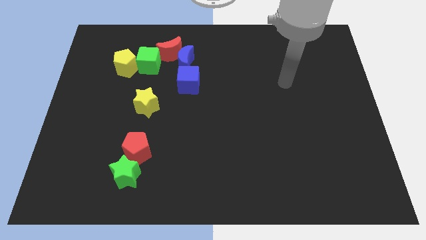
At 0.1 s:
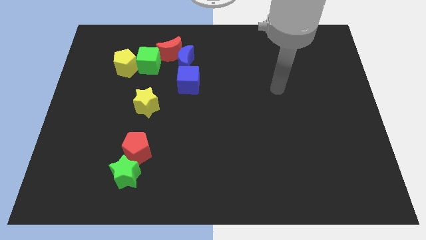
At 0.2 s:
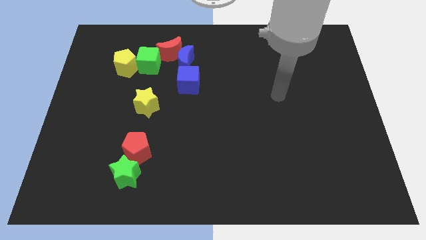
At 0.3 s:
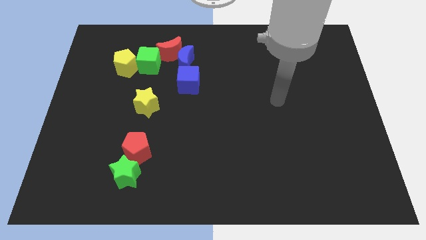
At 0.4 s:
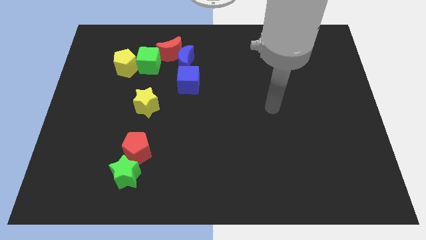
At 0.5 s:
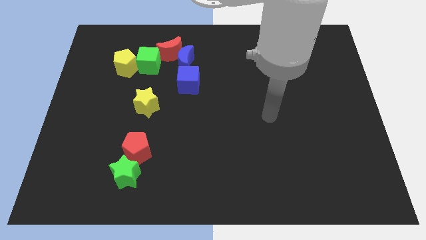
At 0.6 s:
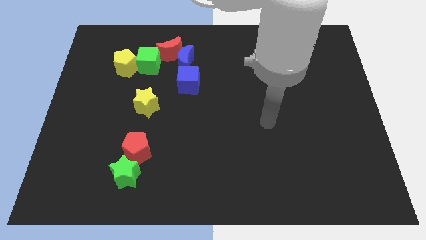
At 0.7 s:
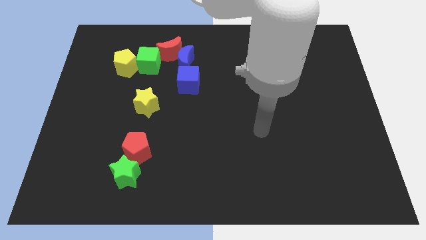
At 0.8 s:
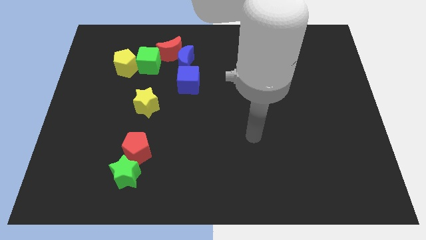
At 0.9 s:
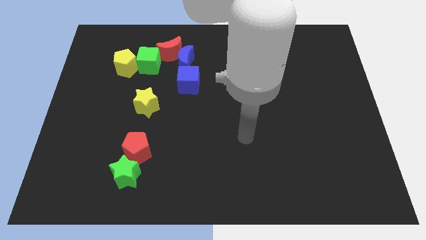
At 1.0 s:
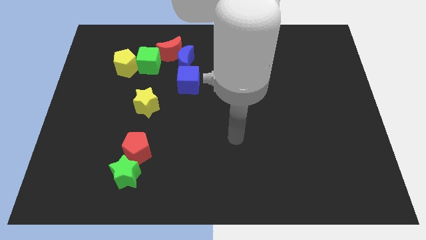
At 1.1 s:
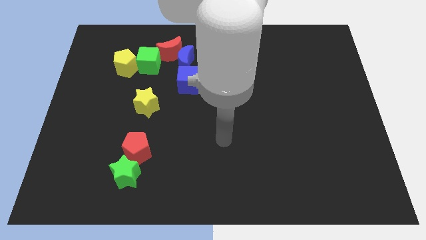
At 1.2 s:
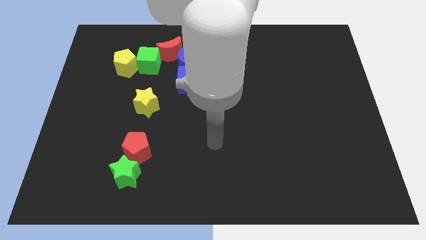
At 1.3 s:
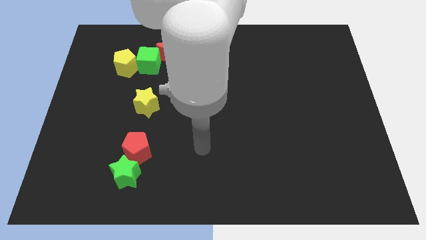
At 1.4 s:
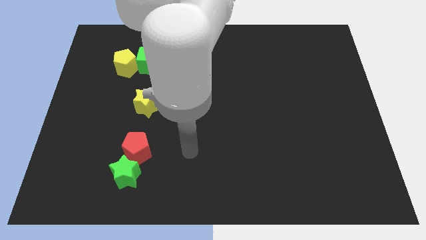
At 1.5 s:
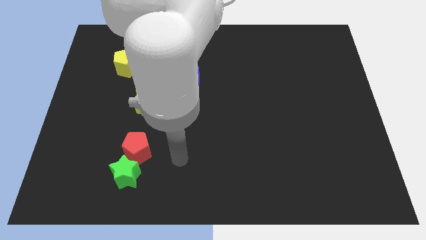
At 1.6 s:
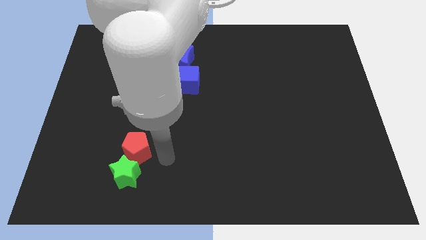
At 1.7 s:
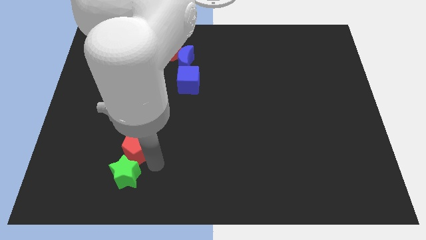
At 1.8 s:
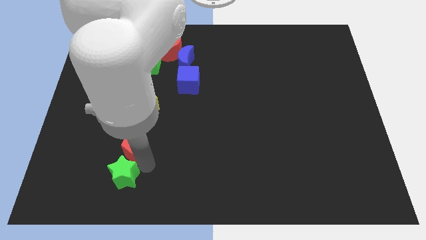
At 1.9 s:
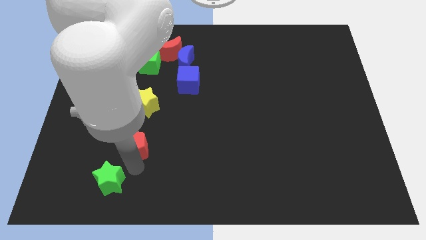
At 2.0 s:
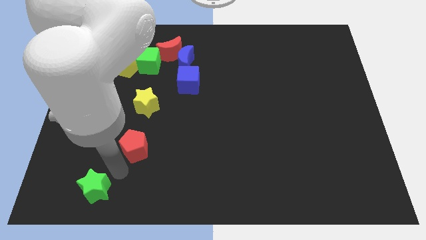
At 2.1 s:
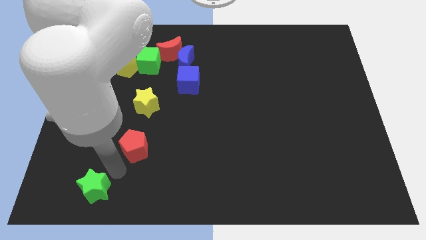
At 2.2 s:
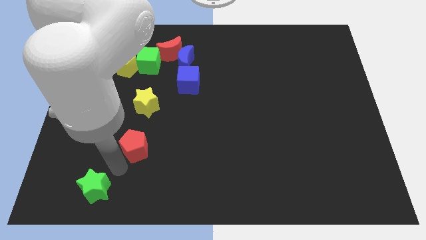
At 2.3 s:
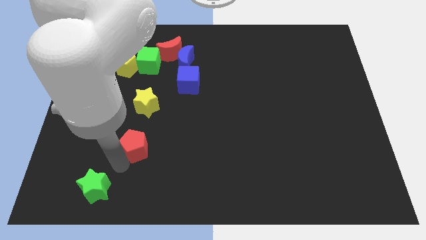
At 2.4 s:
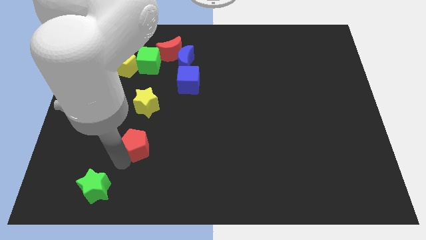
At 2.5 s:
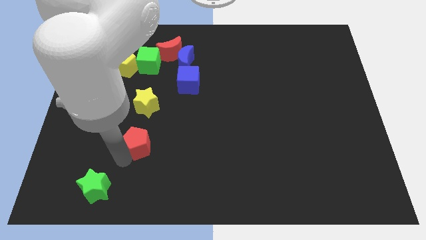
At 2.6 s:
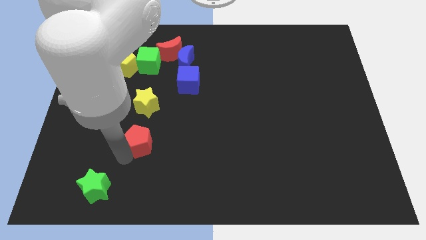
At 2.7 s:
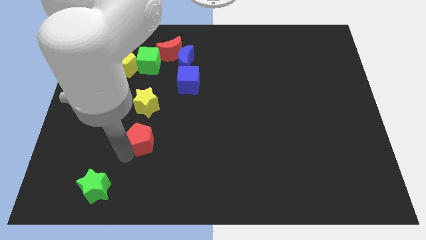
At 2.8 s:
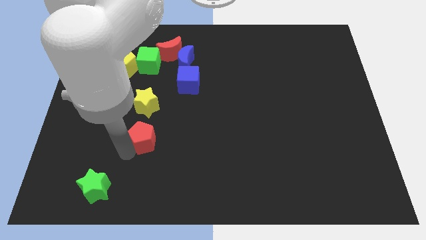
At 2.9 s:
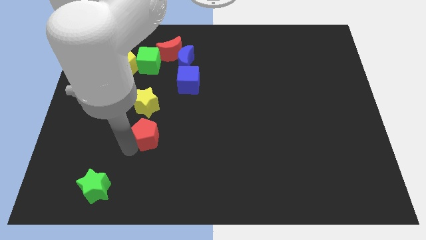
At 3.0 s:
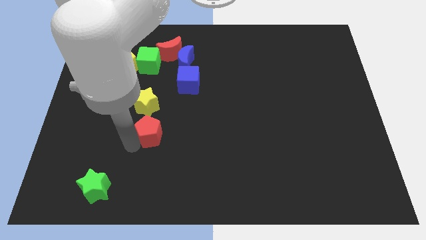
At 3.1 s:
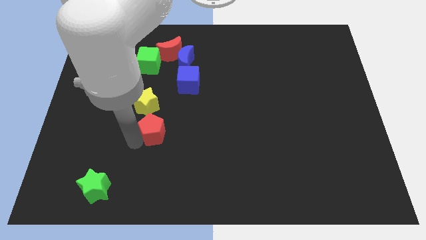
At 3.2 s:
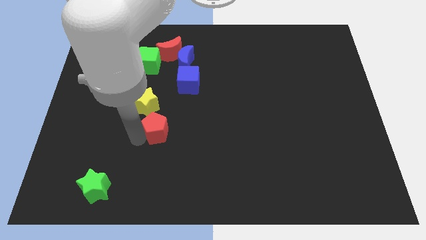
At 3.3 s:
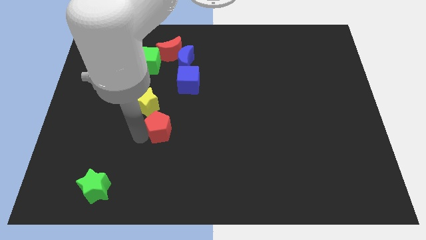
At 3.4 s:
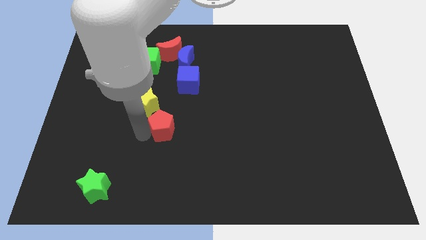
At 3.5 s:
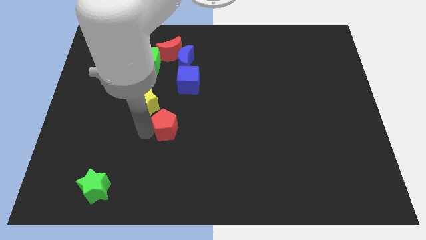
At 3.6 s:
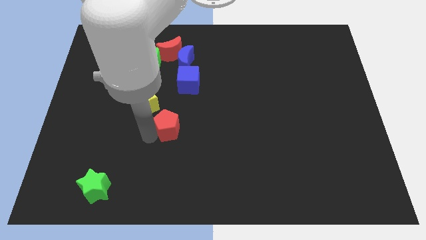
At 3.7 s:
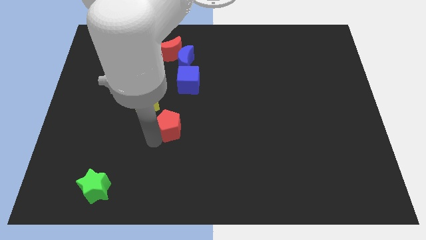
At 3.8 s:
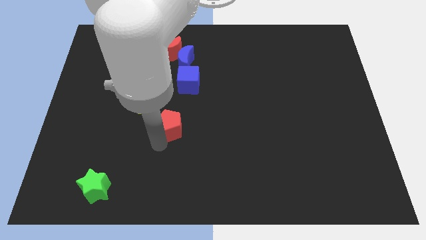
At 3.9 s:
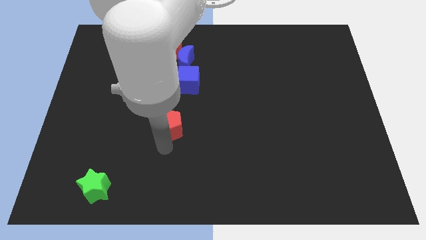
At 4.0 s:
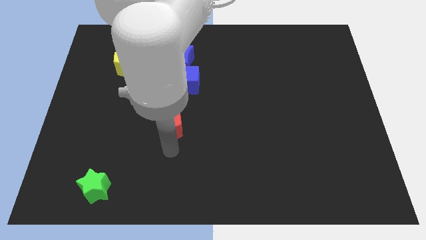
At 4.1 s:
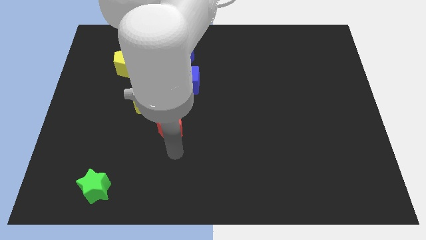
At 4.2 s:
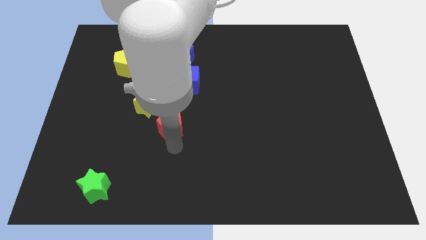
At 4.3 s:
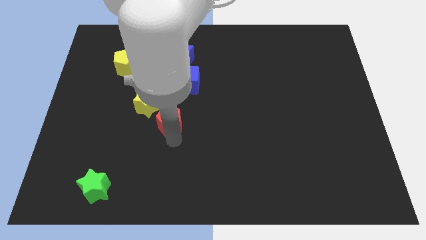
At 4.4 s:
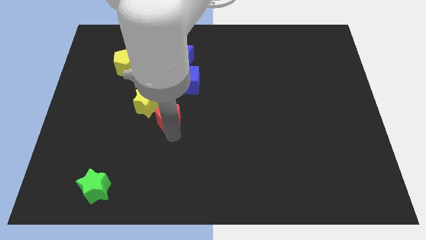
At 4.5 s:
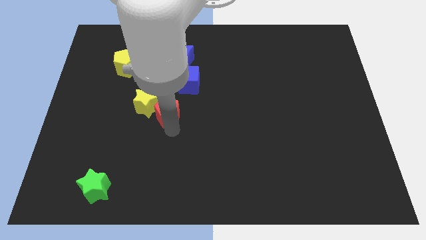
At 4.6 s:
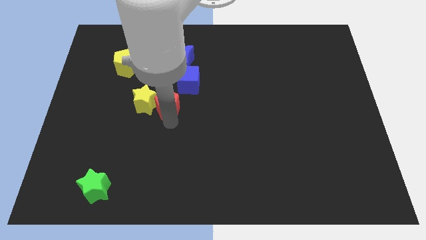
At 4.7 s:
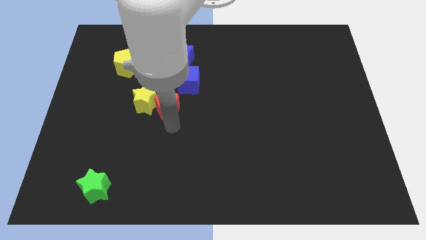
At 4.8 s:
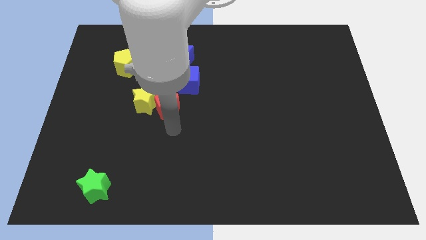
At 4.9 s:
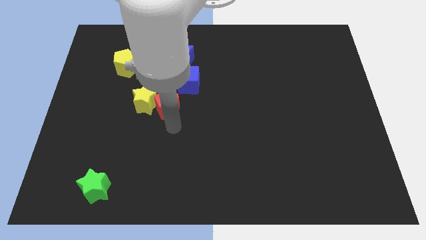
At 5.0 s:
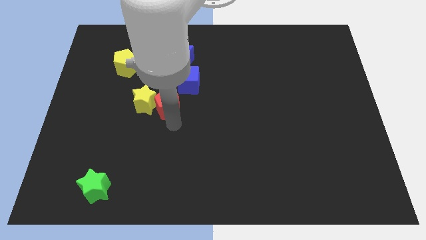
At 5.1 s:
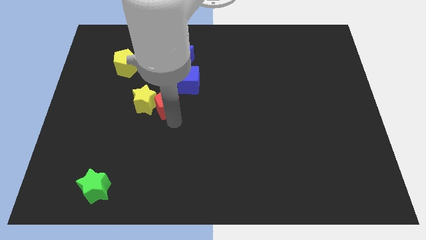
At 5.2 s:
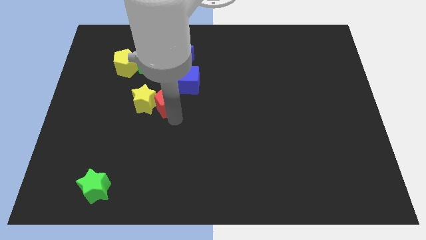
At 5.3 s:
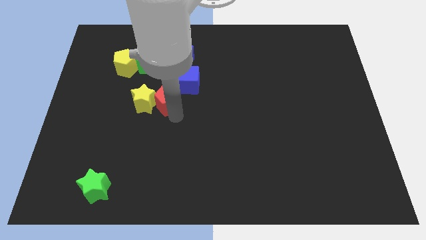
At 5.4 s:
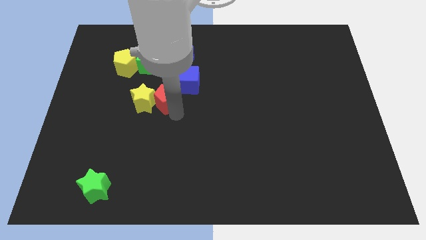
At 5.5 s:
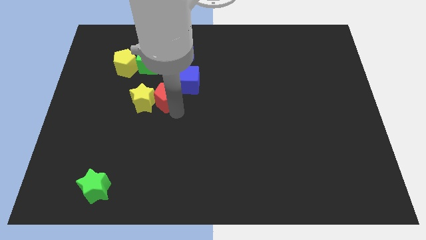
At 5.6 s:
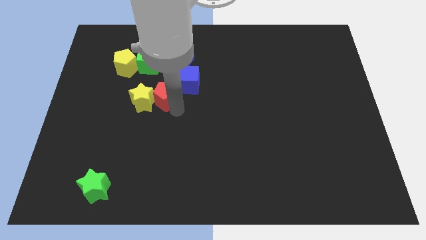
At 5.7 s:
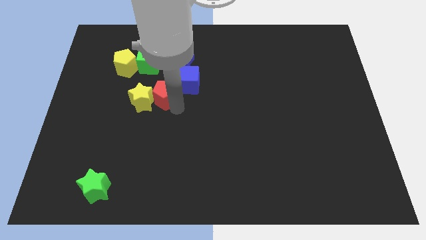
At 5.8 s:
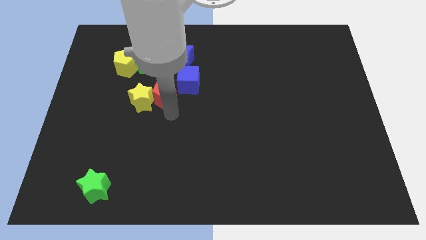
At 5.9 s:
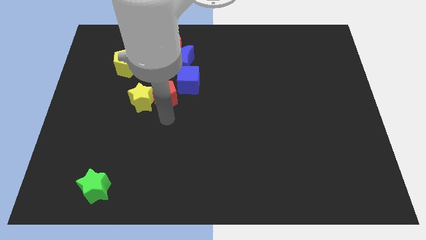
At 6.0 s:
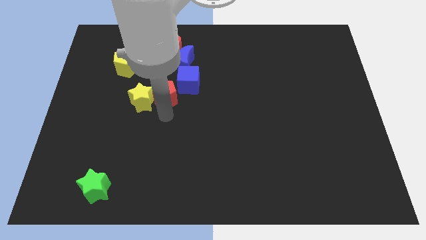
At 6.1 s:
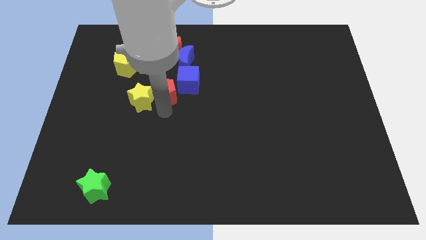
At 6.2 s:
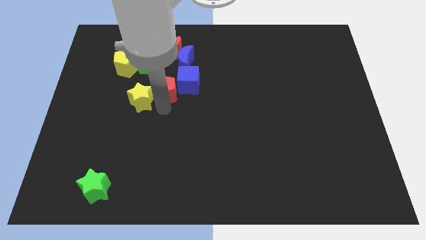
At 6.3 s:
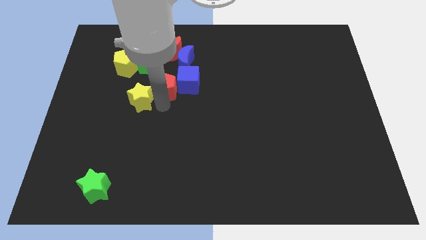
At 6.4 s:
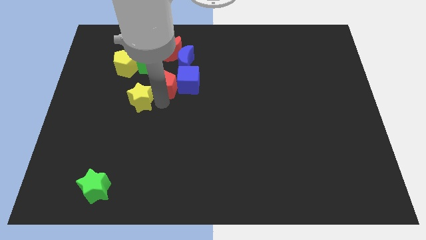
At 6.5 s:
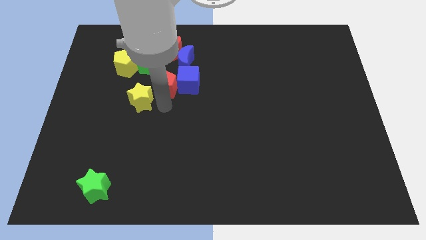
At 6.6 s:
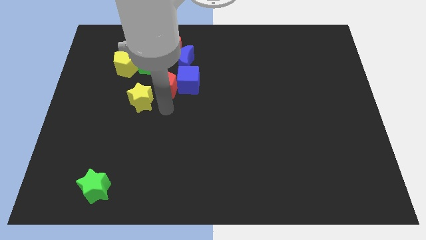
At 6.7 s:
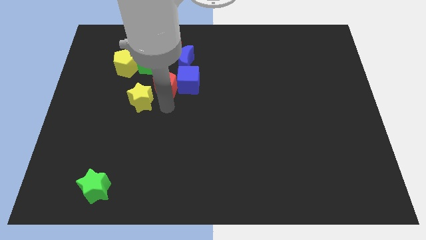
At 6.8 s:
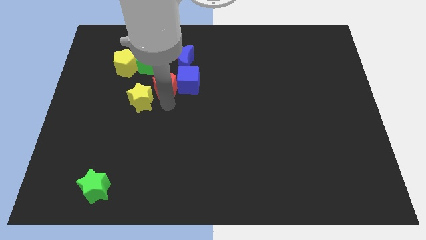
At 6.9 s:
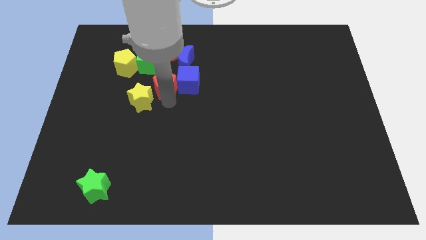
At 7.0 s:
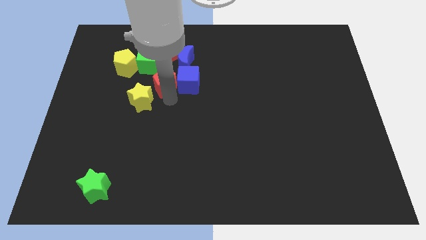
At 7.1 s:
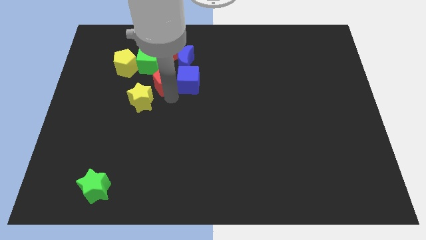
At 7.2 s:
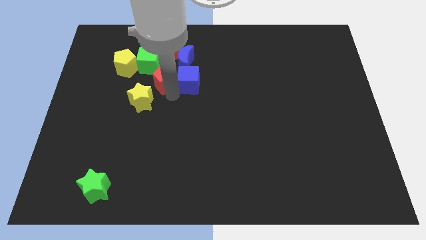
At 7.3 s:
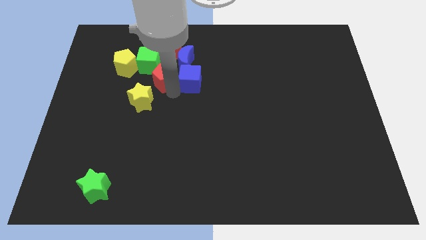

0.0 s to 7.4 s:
push the red pentagon just right of the yellow pentagon
